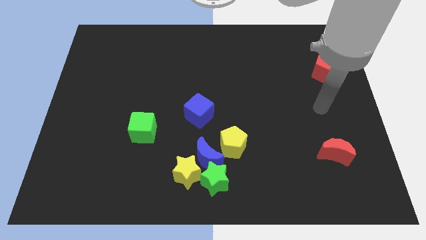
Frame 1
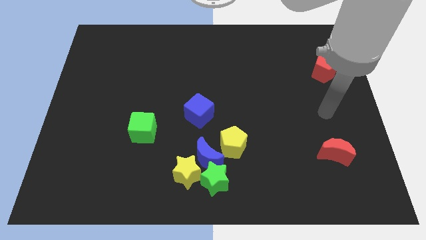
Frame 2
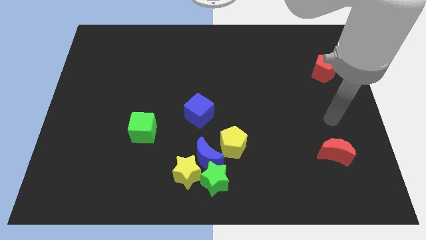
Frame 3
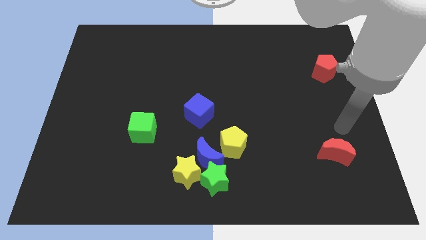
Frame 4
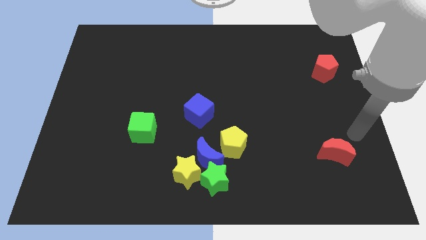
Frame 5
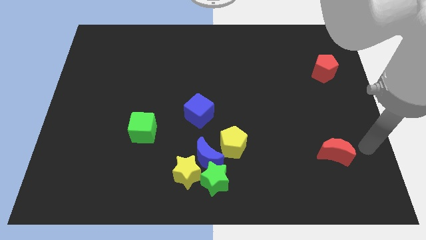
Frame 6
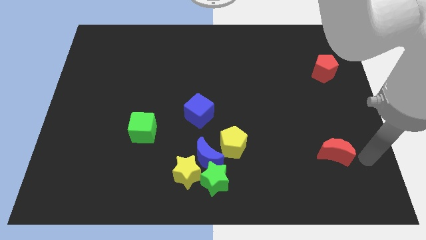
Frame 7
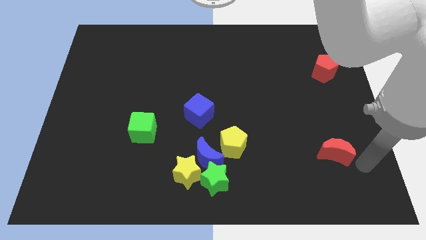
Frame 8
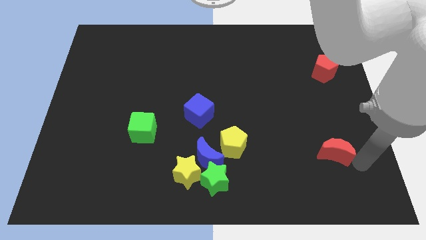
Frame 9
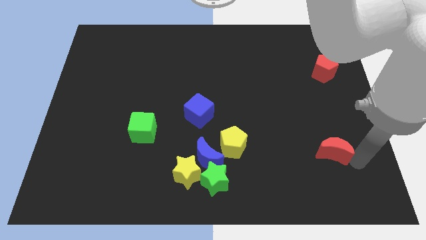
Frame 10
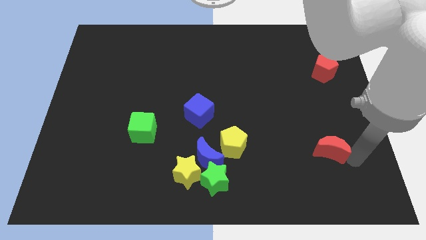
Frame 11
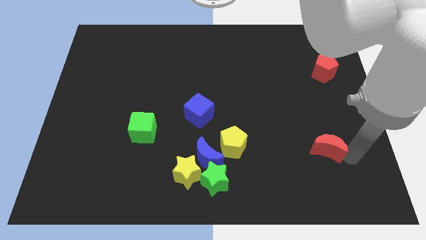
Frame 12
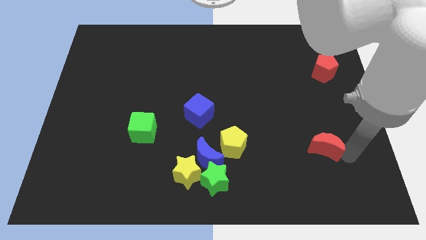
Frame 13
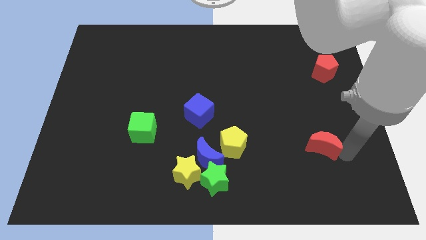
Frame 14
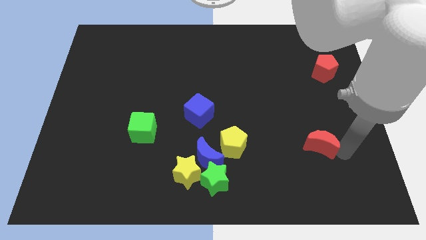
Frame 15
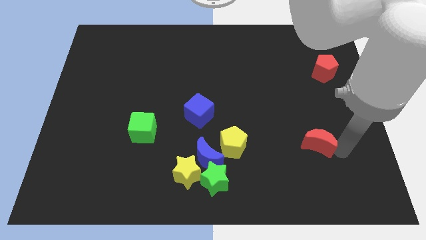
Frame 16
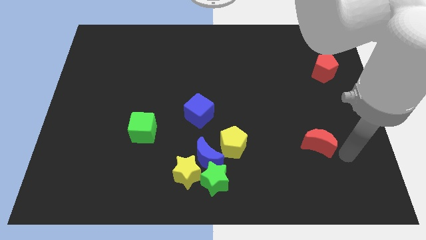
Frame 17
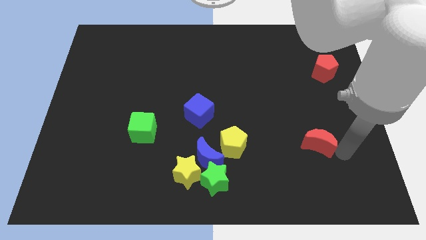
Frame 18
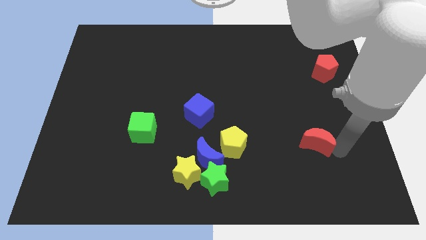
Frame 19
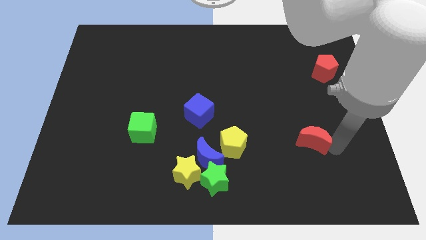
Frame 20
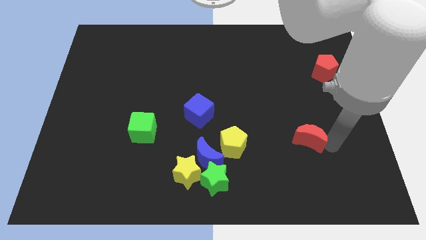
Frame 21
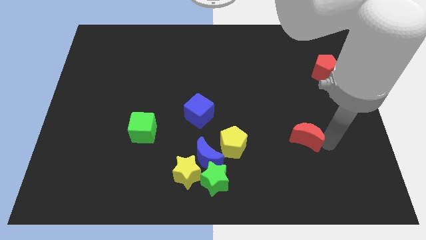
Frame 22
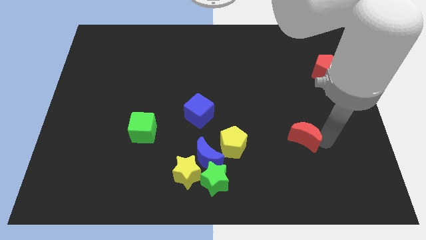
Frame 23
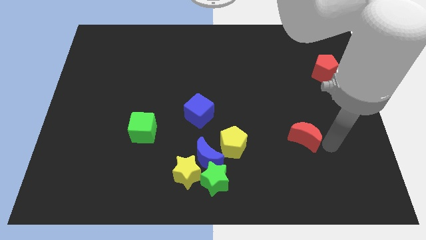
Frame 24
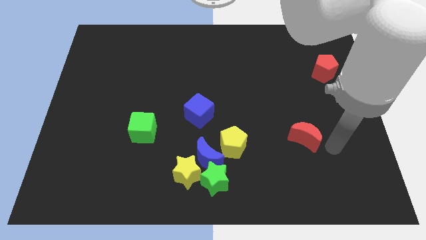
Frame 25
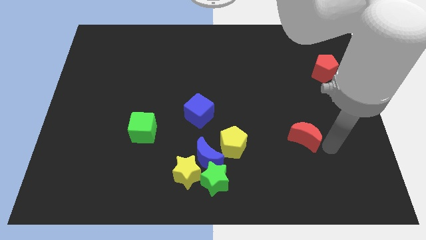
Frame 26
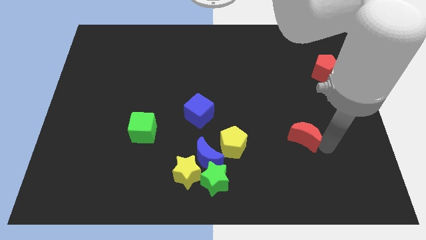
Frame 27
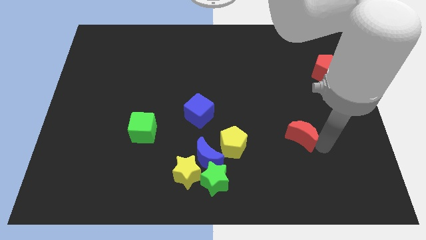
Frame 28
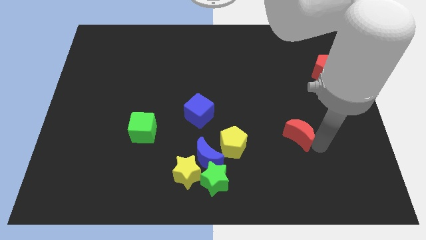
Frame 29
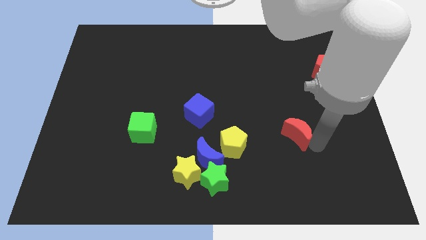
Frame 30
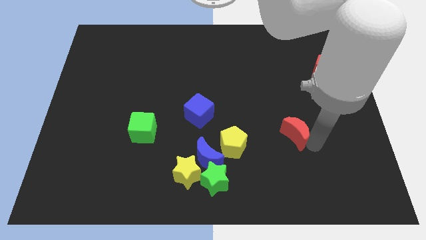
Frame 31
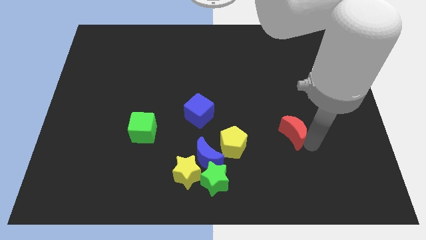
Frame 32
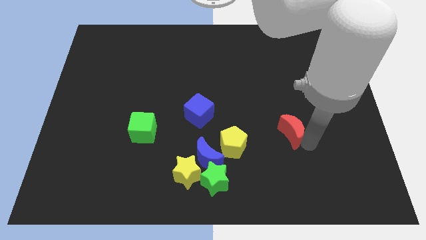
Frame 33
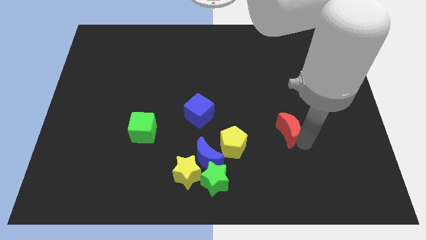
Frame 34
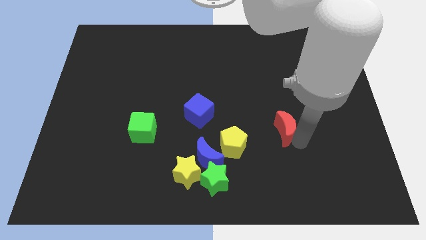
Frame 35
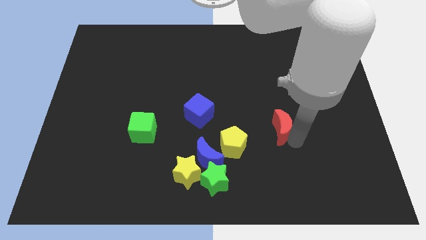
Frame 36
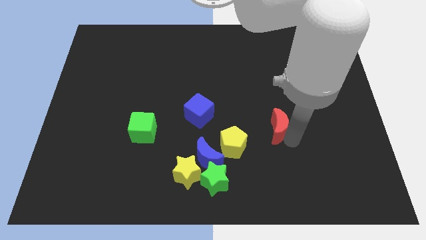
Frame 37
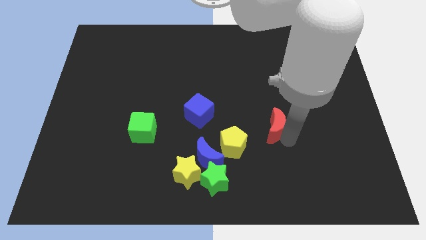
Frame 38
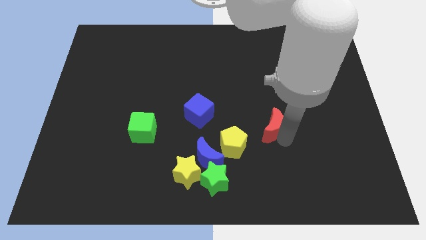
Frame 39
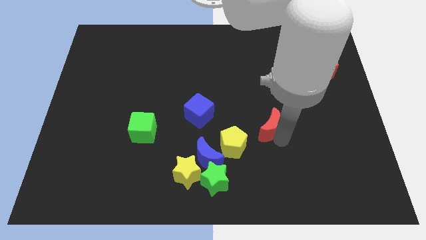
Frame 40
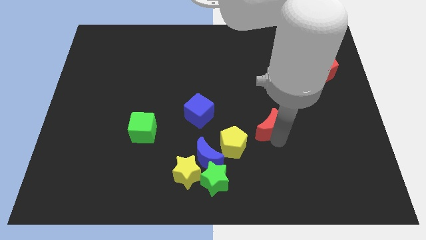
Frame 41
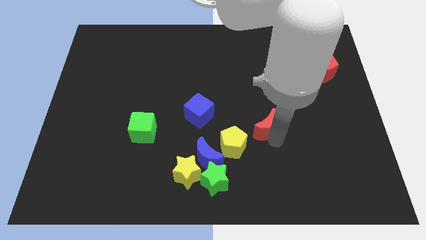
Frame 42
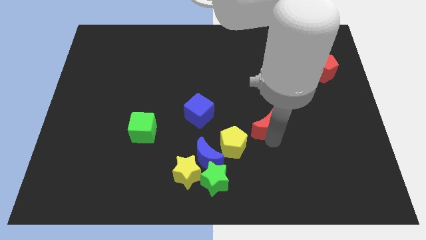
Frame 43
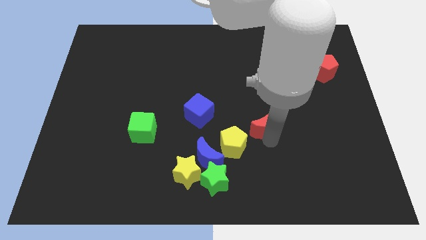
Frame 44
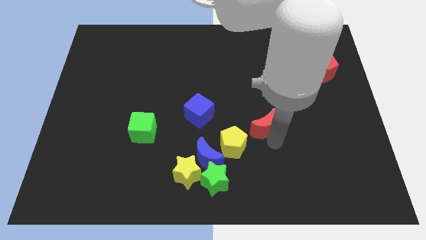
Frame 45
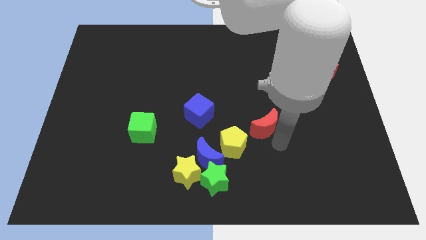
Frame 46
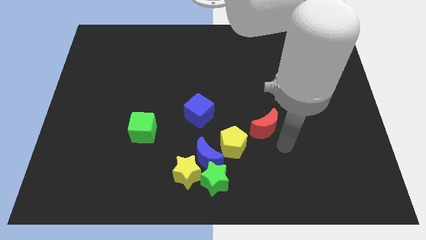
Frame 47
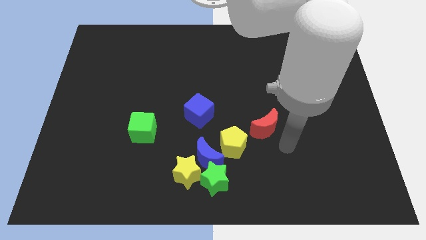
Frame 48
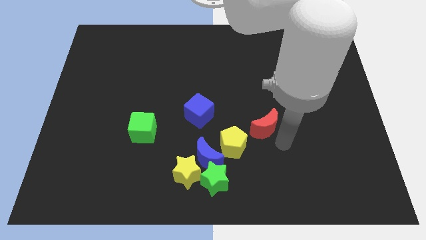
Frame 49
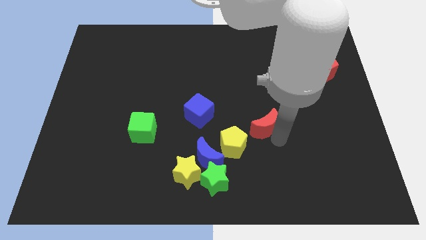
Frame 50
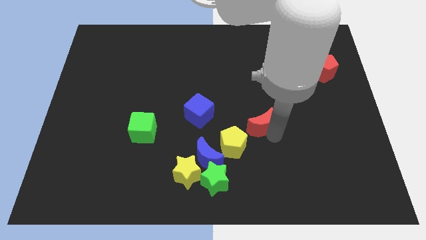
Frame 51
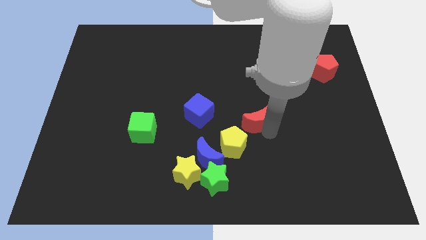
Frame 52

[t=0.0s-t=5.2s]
put the red moon to the middle

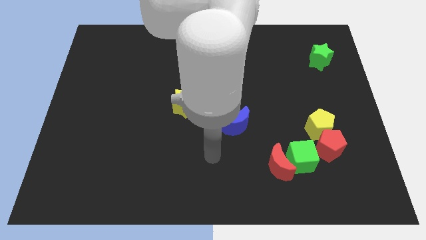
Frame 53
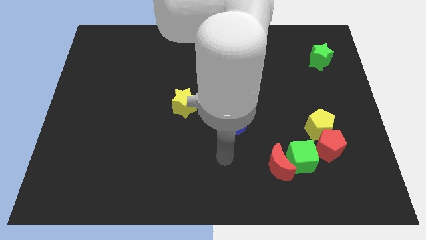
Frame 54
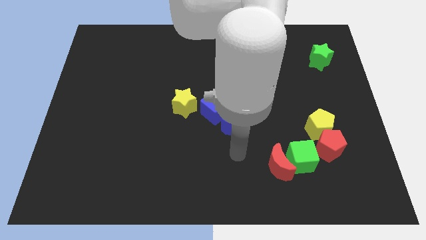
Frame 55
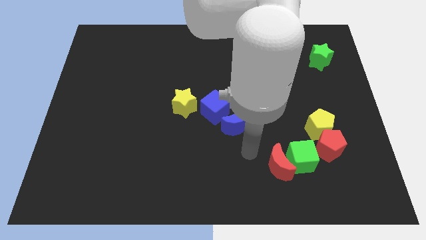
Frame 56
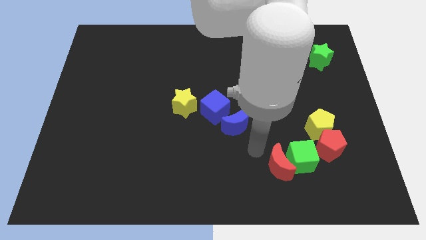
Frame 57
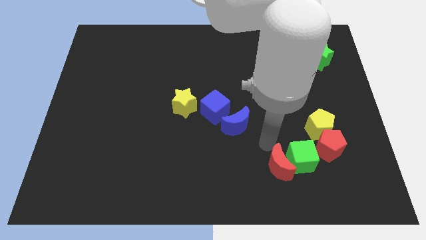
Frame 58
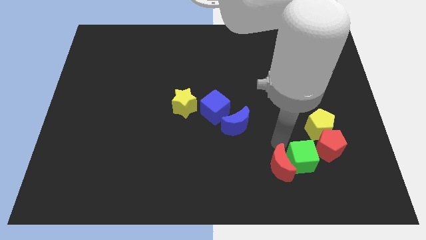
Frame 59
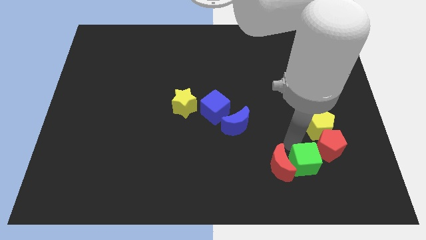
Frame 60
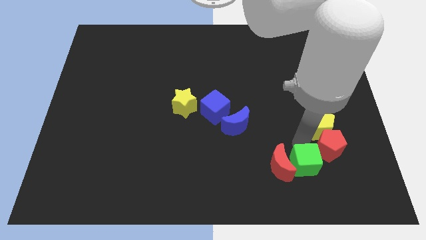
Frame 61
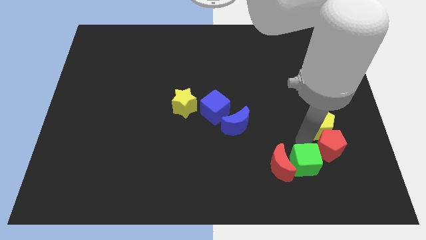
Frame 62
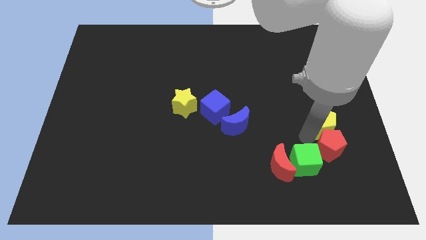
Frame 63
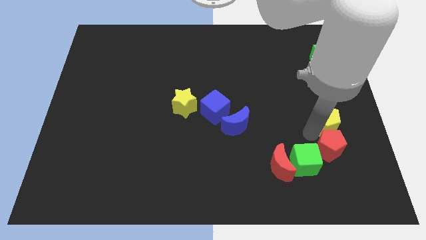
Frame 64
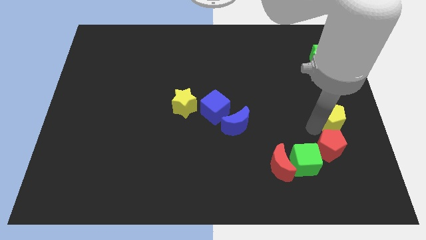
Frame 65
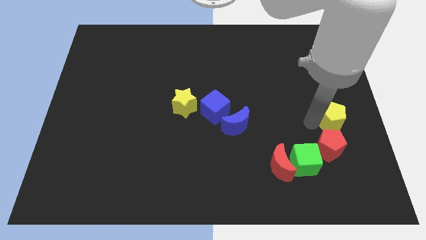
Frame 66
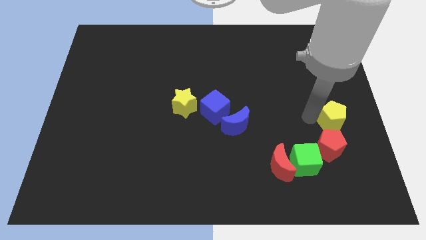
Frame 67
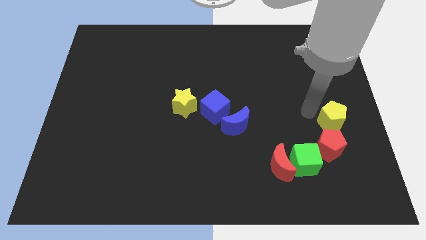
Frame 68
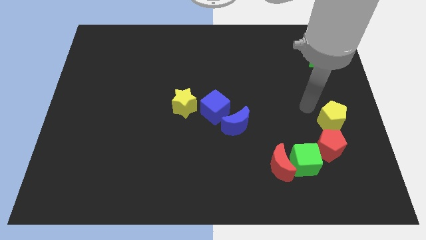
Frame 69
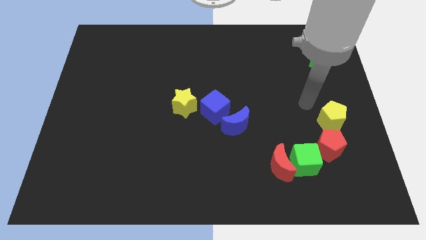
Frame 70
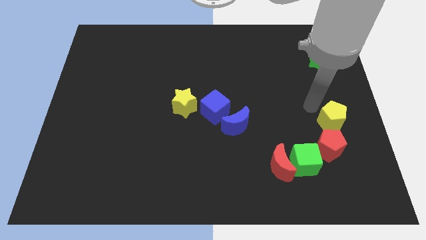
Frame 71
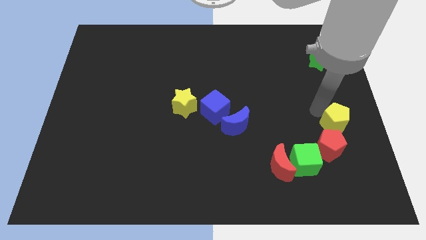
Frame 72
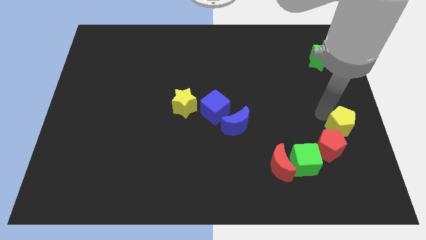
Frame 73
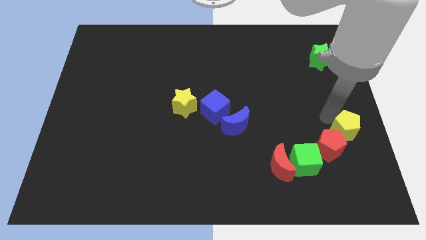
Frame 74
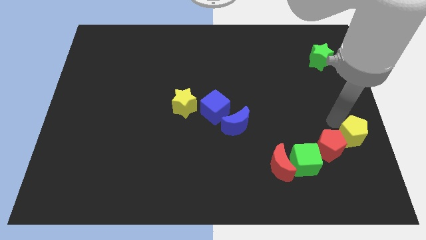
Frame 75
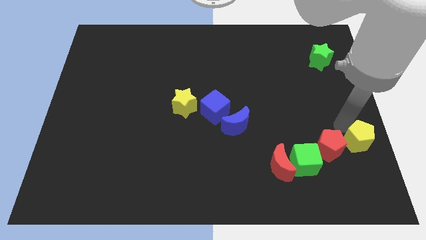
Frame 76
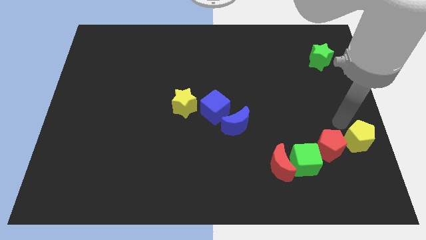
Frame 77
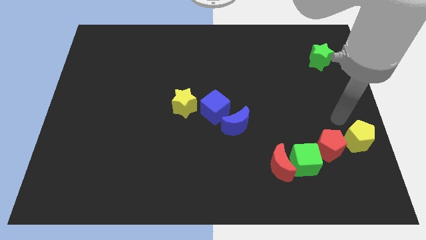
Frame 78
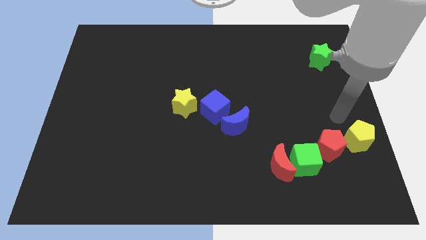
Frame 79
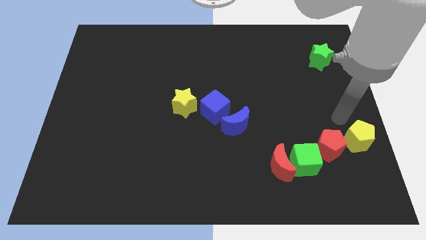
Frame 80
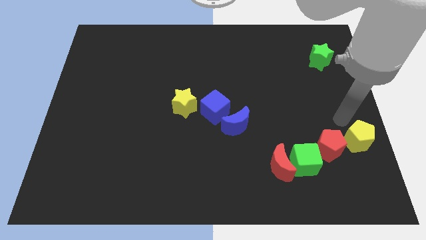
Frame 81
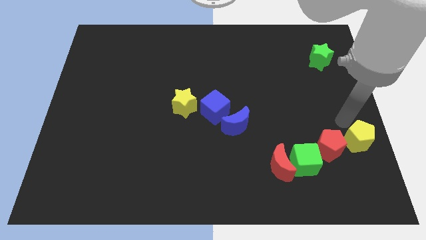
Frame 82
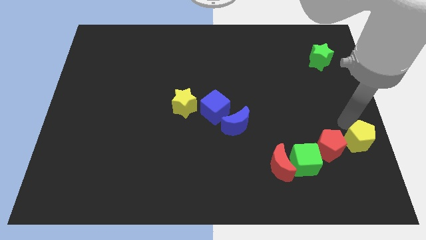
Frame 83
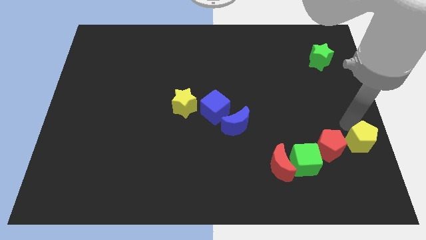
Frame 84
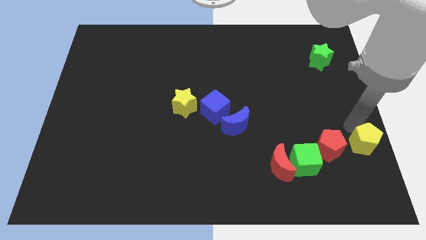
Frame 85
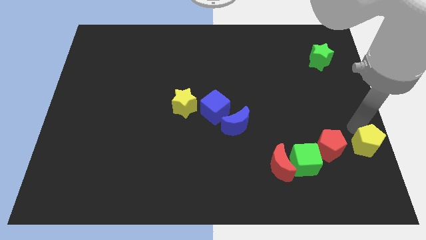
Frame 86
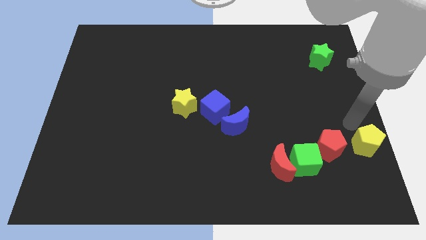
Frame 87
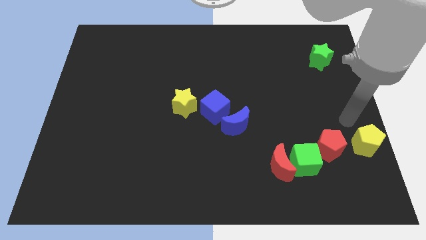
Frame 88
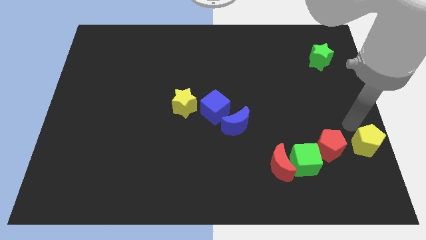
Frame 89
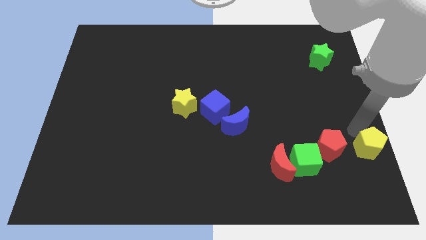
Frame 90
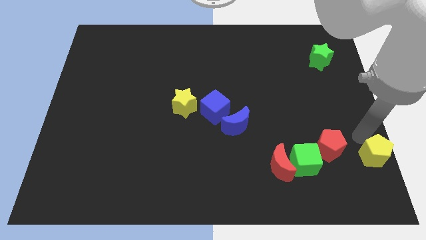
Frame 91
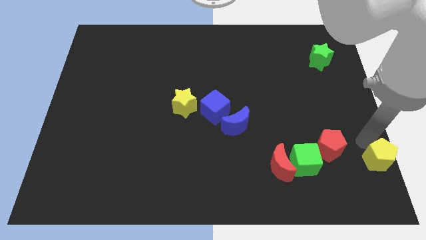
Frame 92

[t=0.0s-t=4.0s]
slide the yellow pentagon to the bottom right
